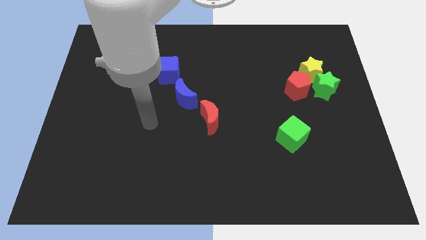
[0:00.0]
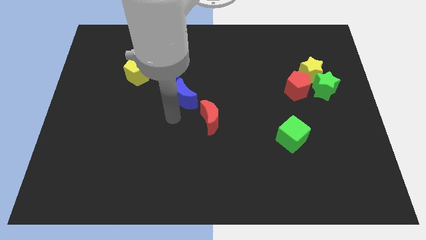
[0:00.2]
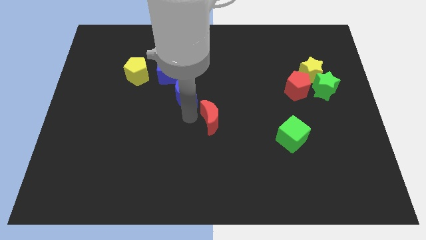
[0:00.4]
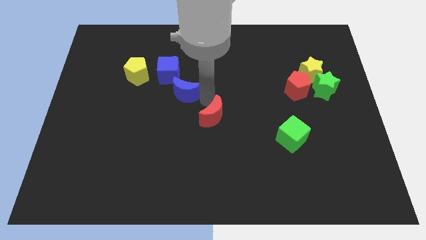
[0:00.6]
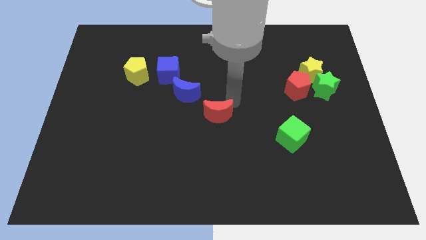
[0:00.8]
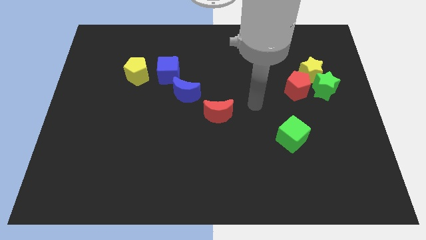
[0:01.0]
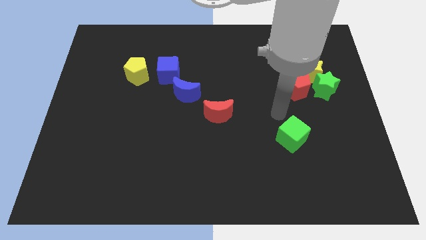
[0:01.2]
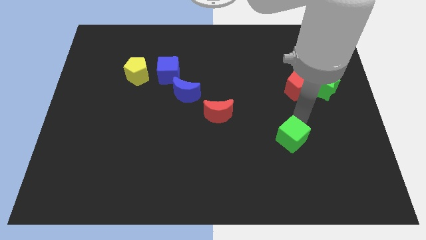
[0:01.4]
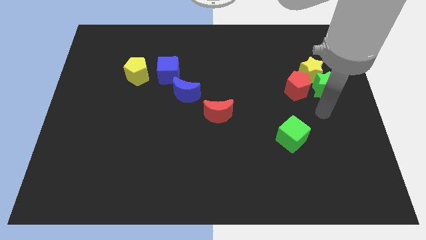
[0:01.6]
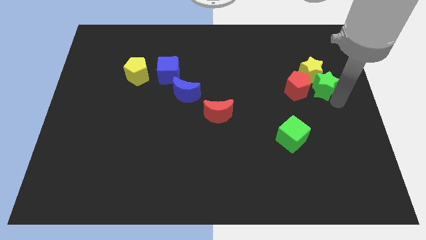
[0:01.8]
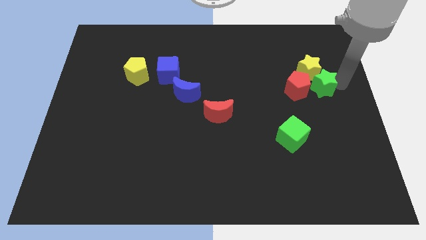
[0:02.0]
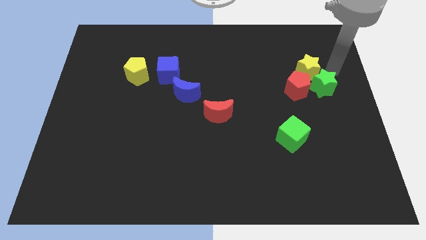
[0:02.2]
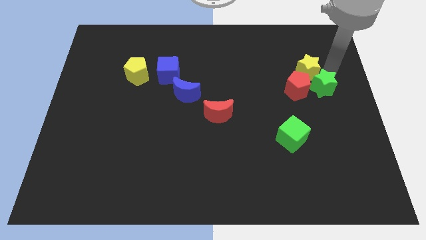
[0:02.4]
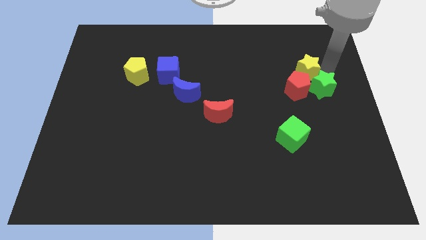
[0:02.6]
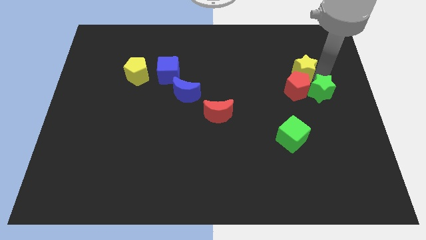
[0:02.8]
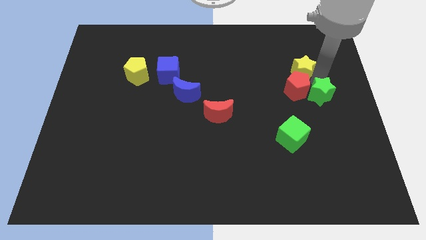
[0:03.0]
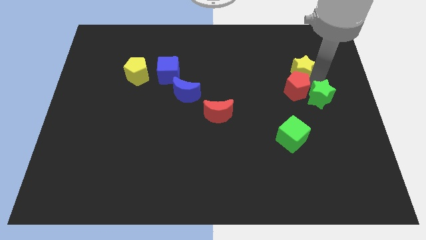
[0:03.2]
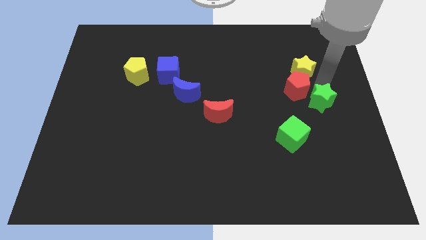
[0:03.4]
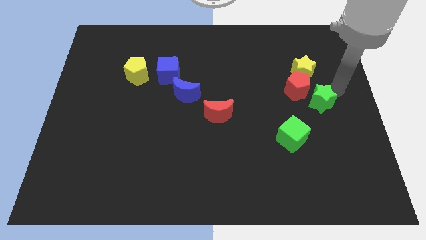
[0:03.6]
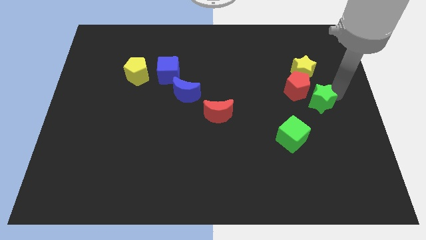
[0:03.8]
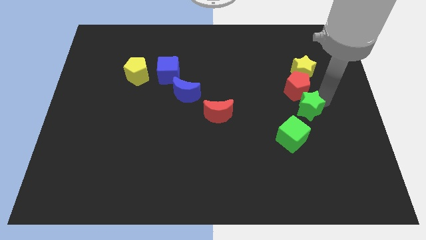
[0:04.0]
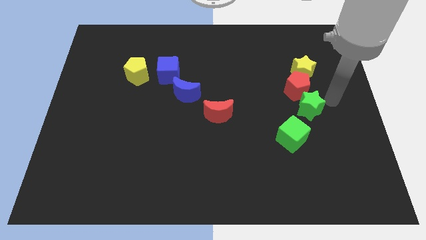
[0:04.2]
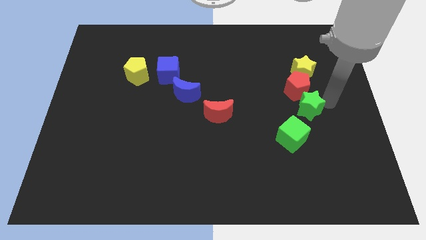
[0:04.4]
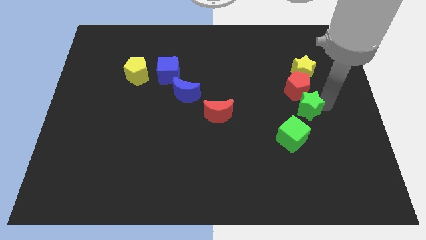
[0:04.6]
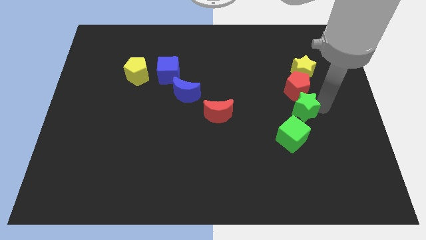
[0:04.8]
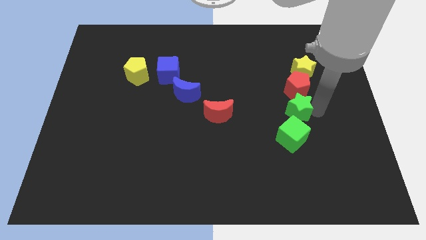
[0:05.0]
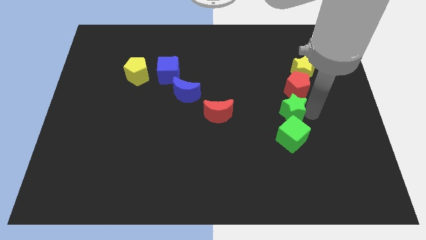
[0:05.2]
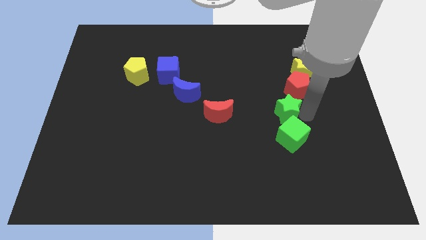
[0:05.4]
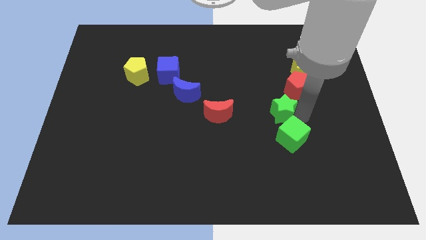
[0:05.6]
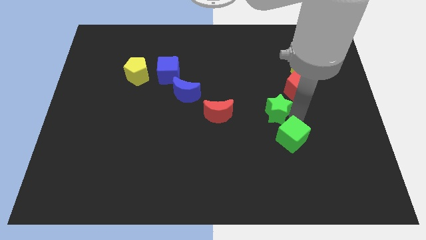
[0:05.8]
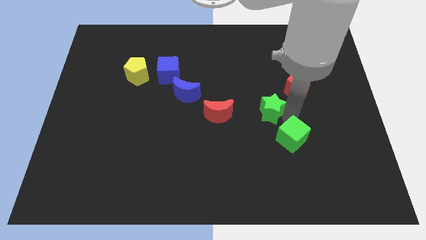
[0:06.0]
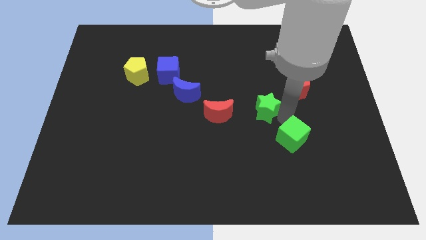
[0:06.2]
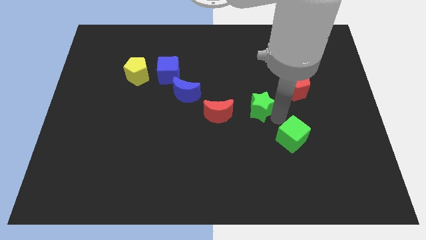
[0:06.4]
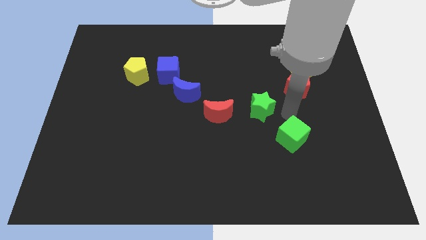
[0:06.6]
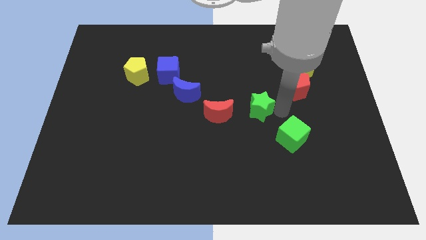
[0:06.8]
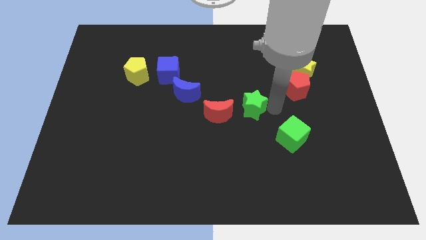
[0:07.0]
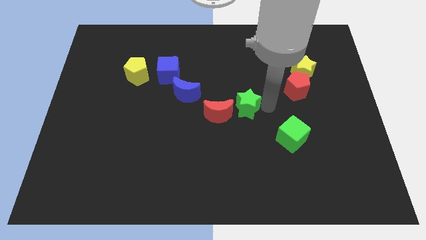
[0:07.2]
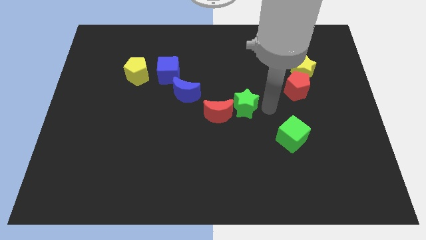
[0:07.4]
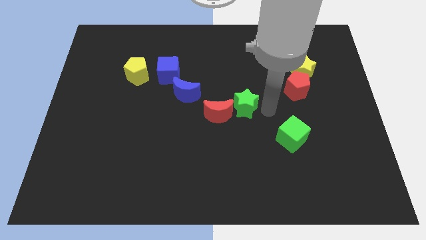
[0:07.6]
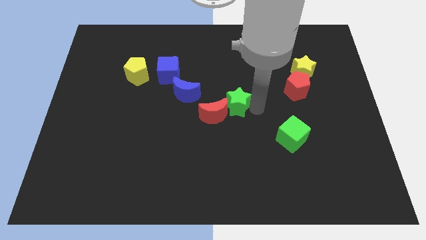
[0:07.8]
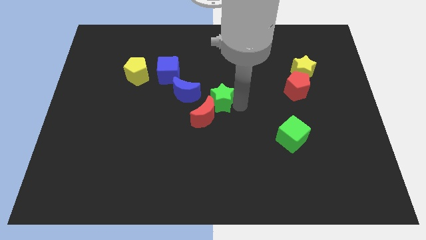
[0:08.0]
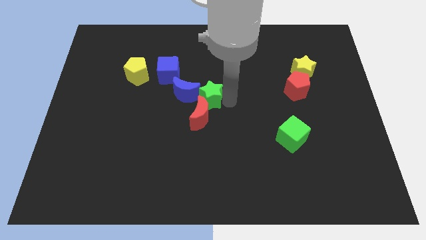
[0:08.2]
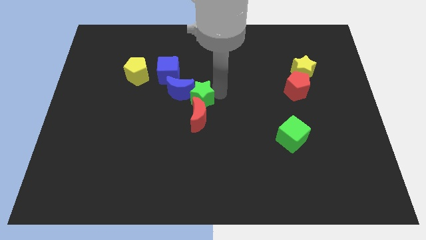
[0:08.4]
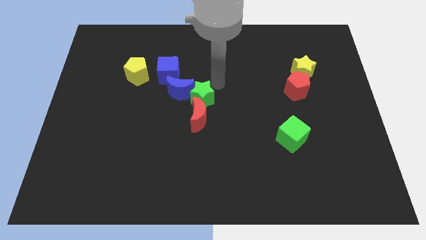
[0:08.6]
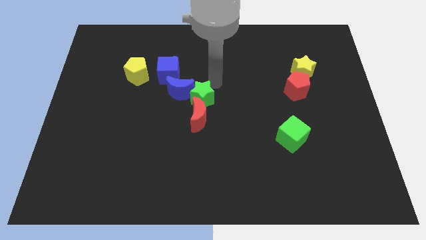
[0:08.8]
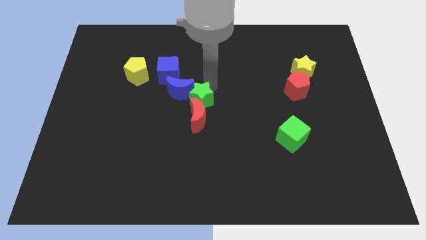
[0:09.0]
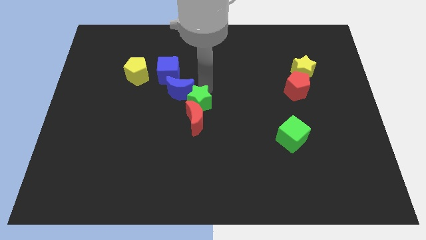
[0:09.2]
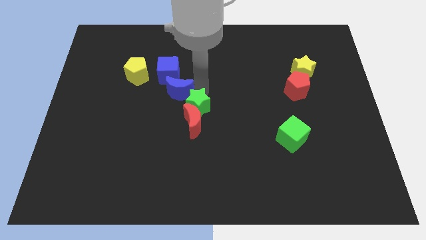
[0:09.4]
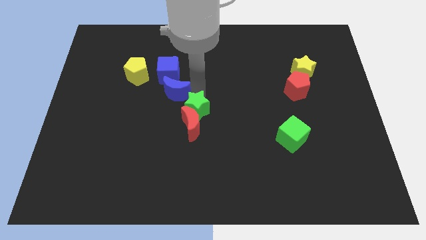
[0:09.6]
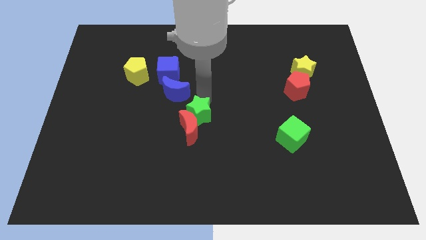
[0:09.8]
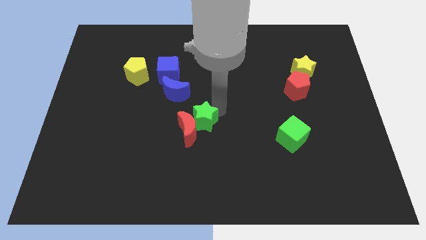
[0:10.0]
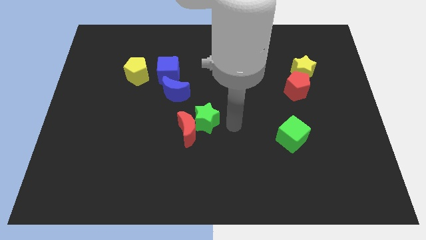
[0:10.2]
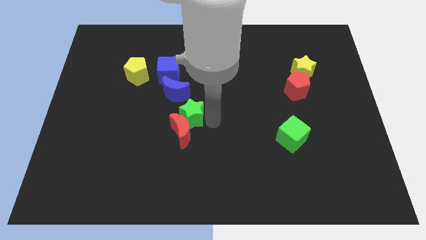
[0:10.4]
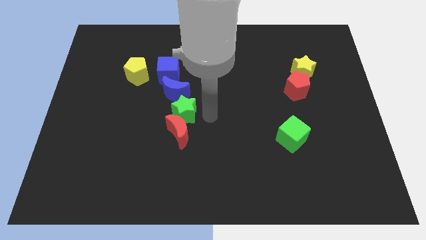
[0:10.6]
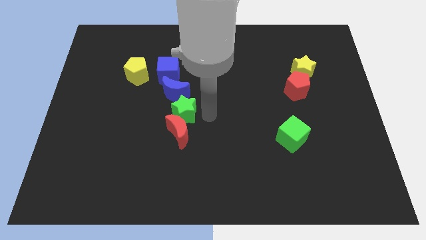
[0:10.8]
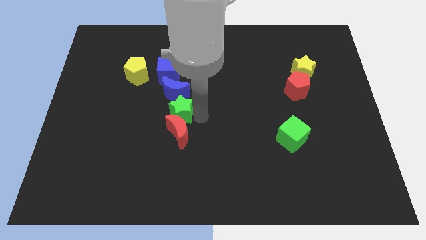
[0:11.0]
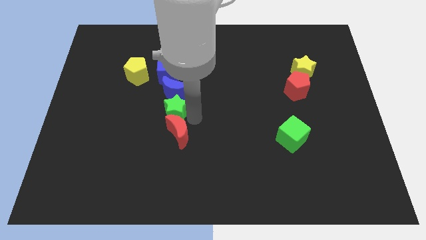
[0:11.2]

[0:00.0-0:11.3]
move the green star to the bottom left of the blue moon
